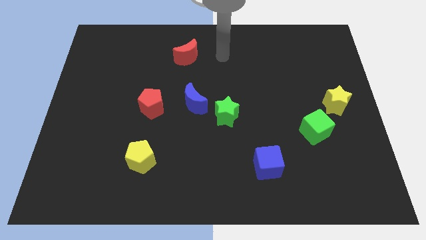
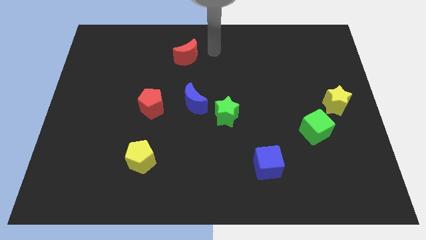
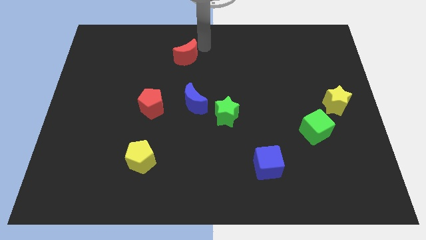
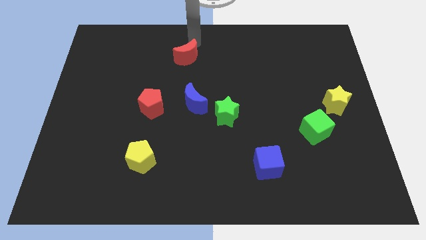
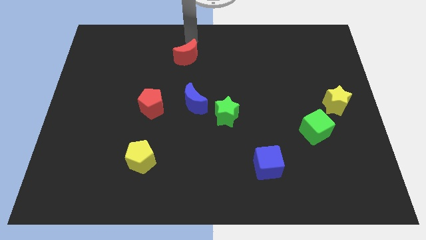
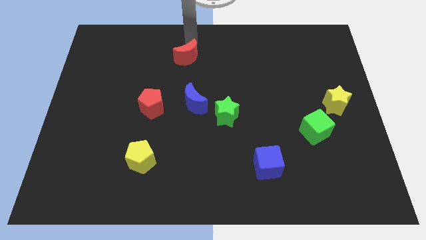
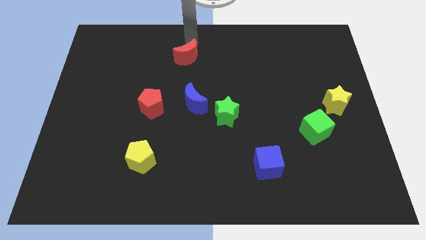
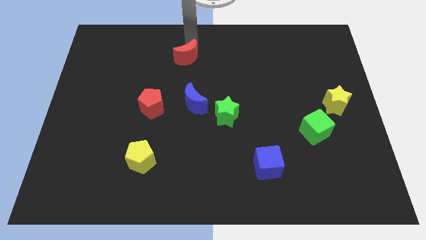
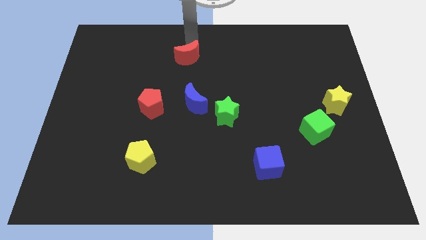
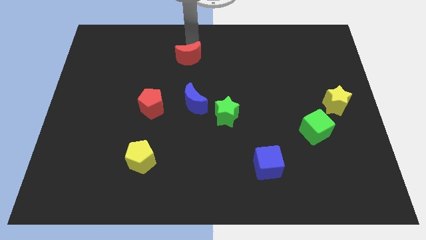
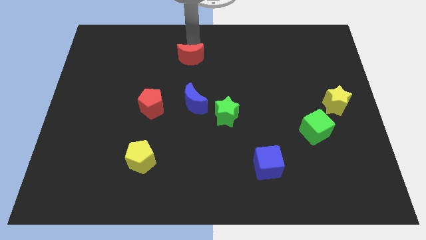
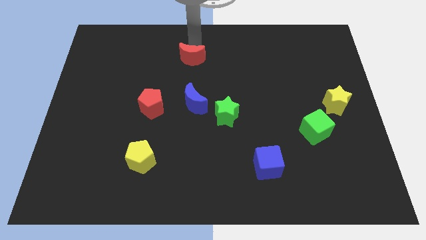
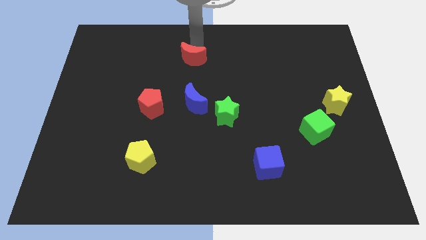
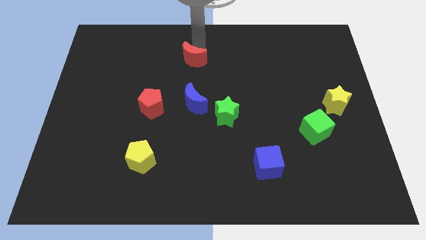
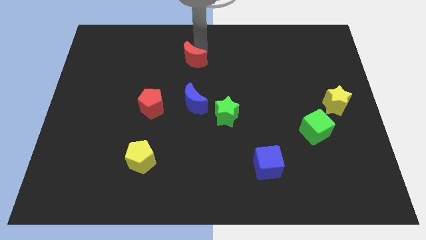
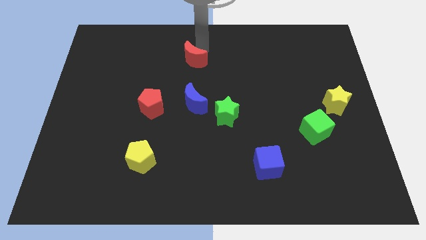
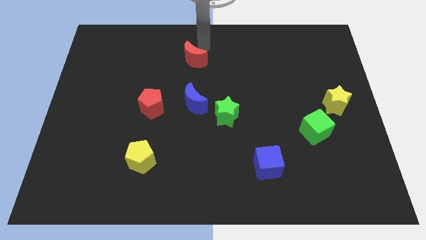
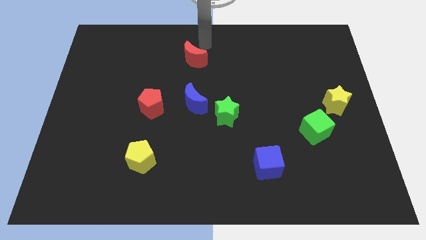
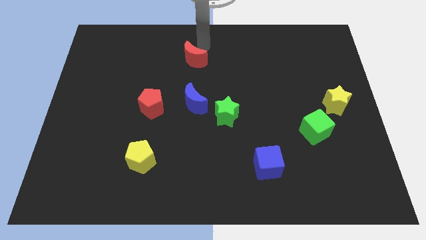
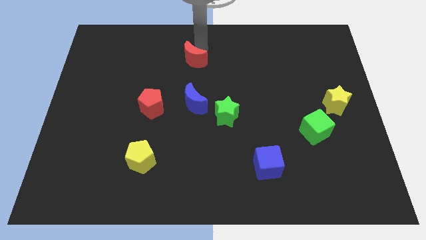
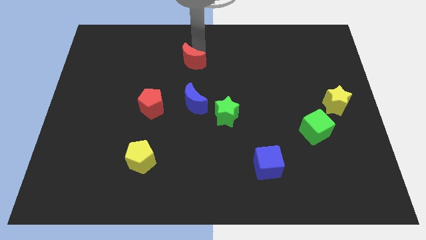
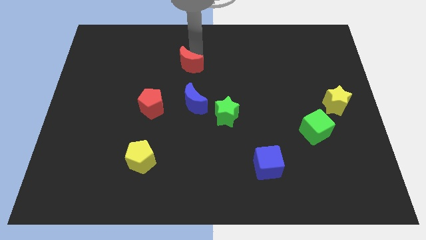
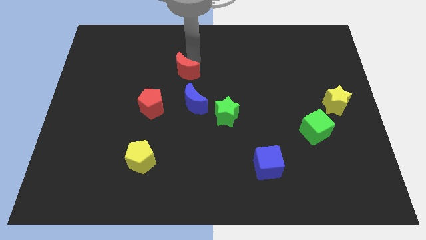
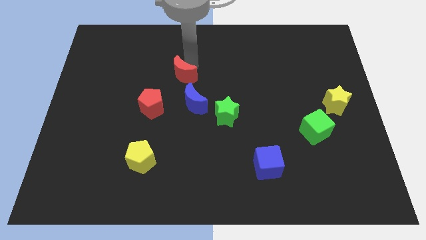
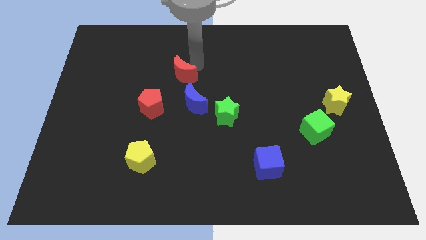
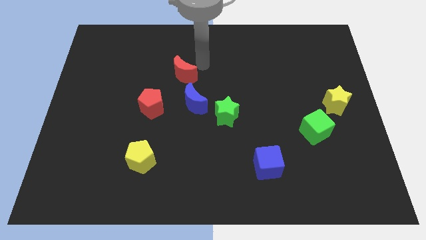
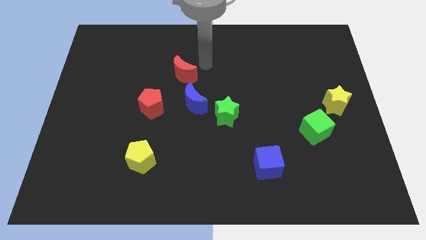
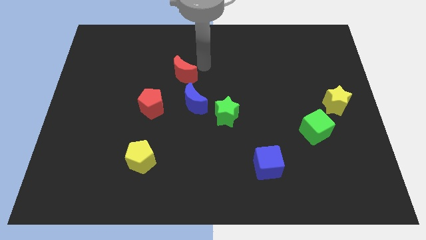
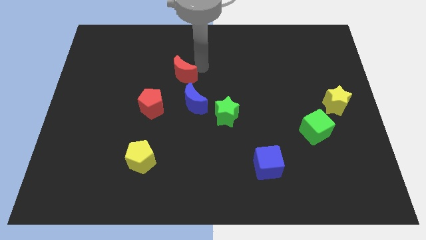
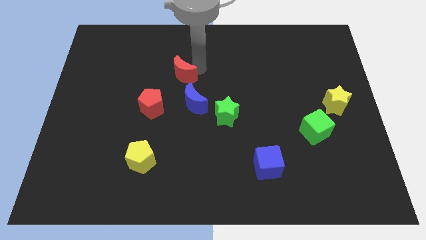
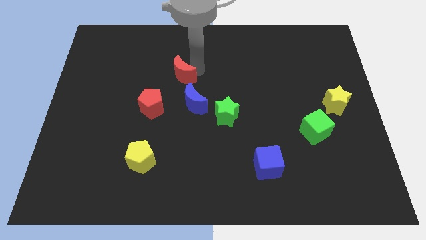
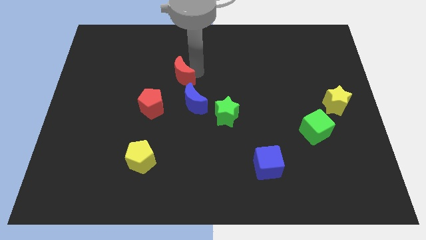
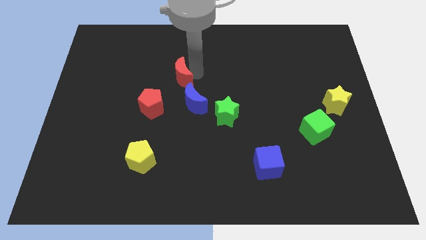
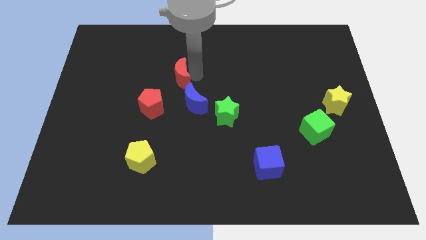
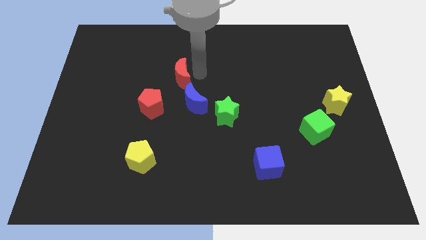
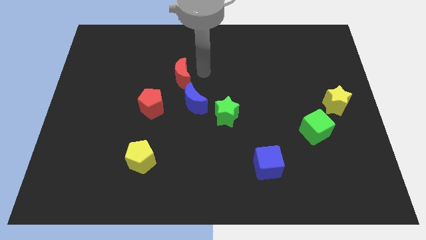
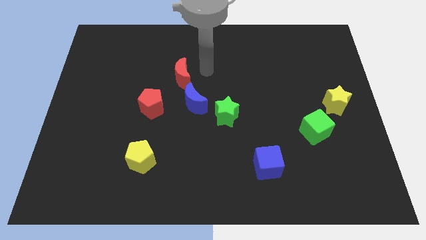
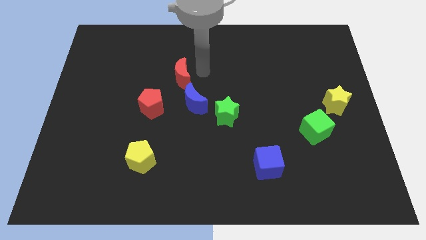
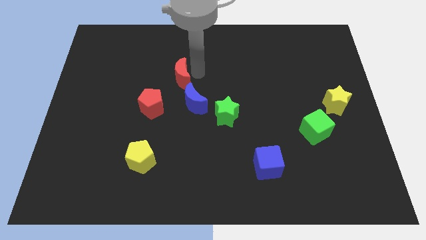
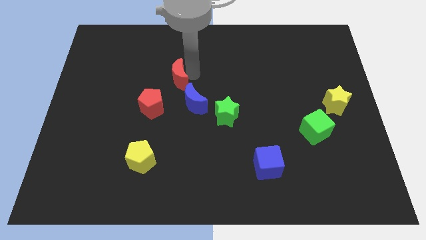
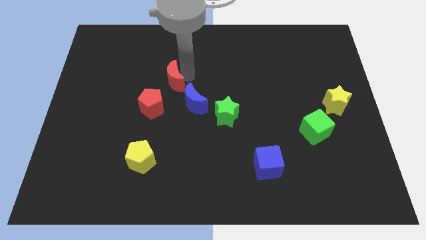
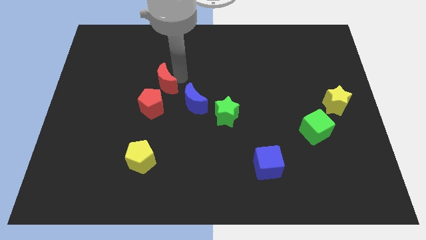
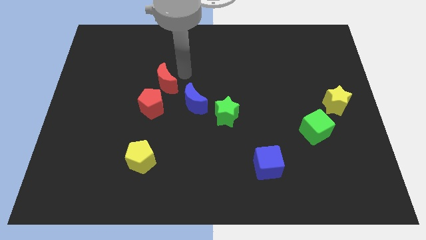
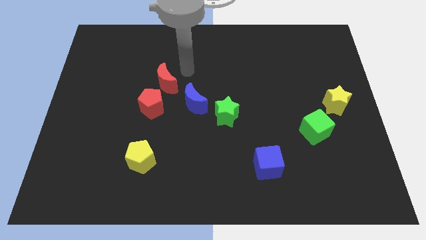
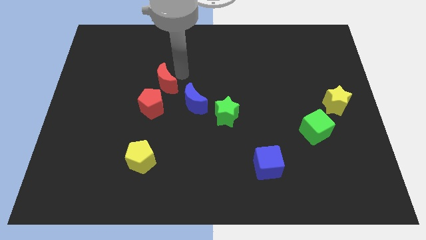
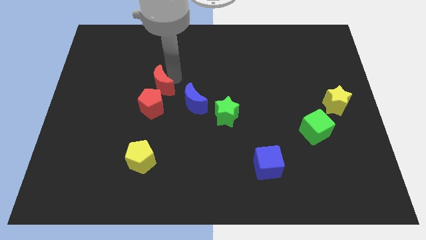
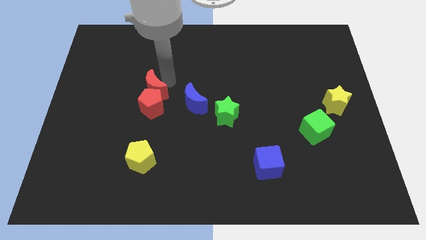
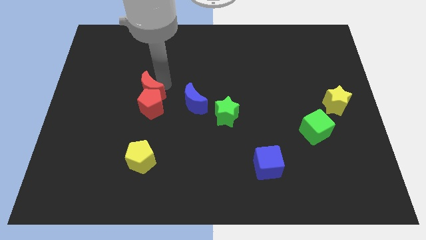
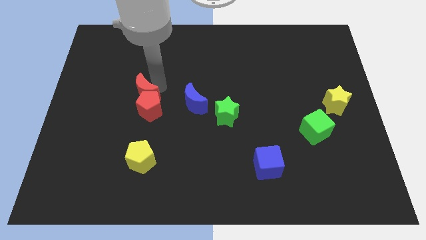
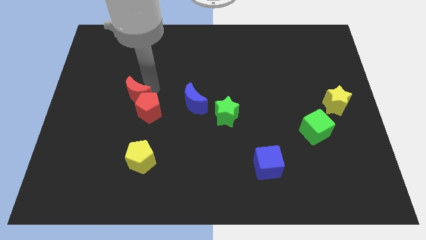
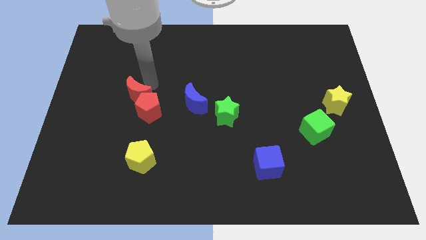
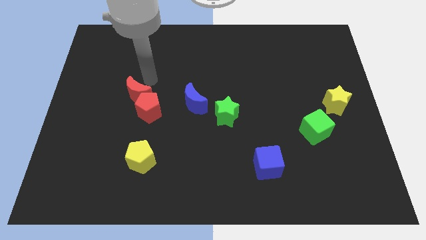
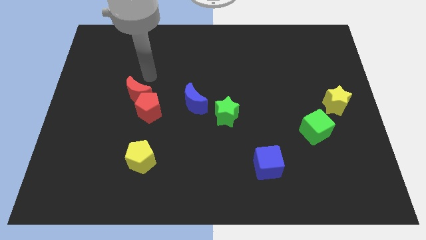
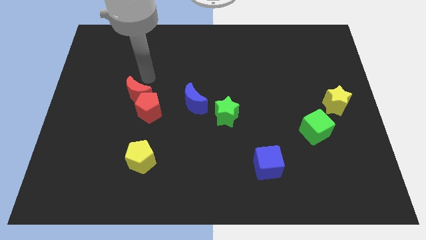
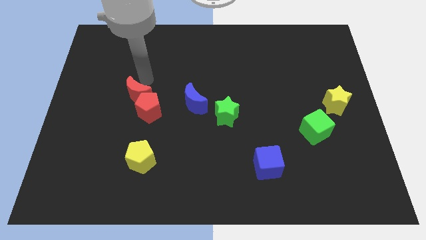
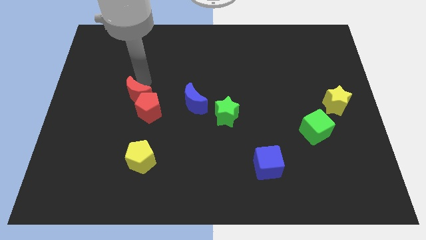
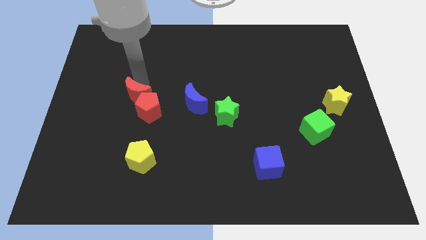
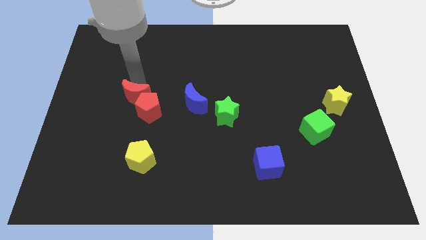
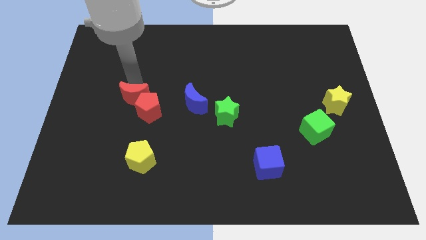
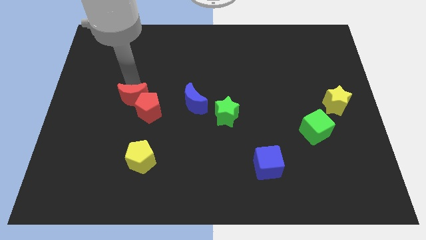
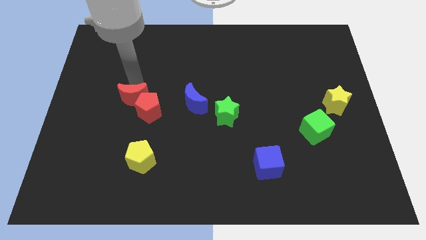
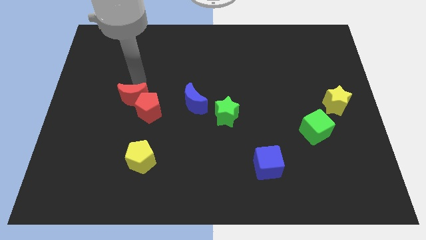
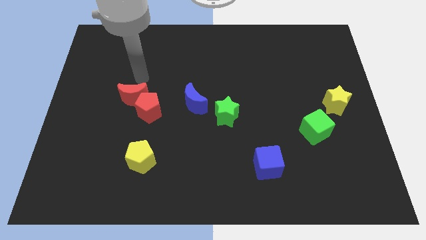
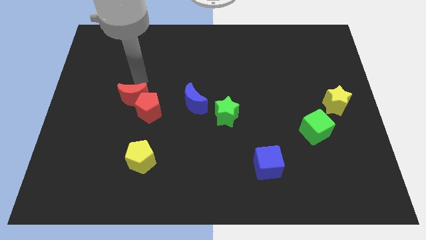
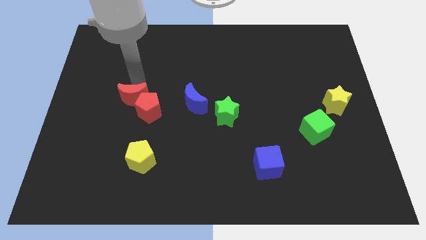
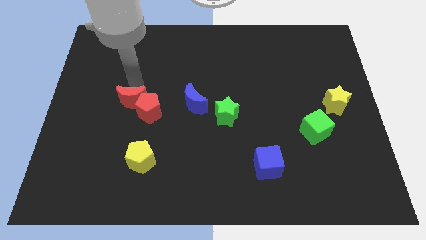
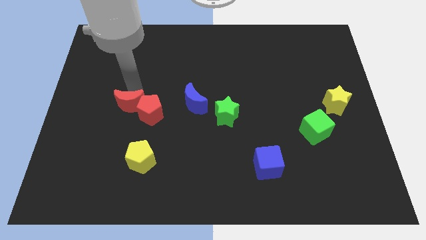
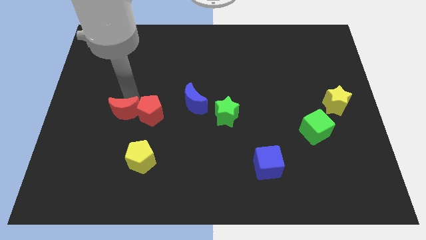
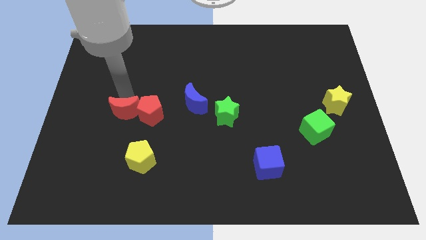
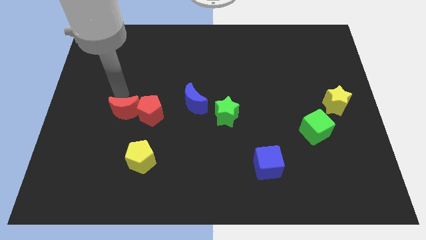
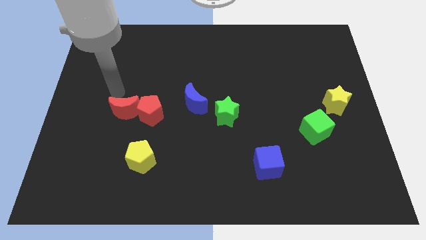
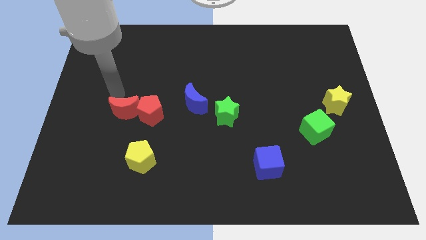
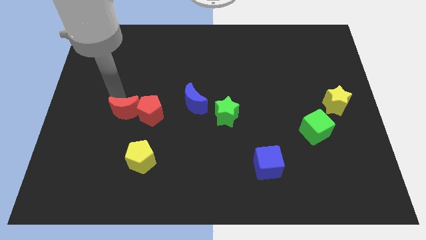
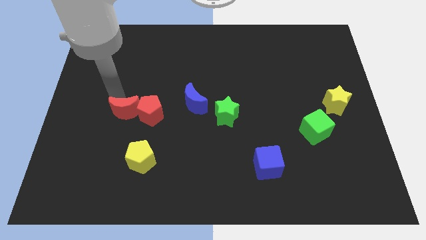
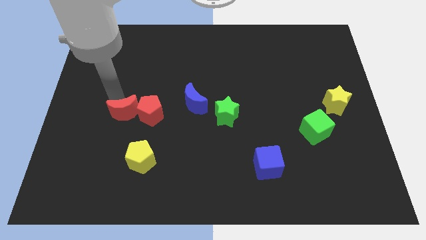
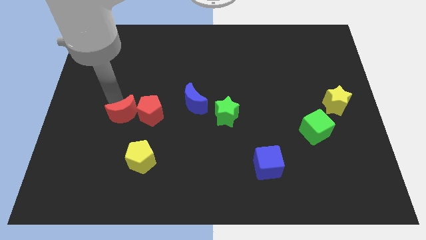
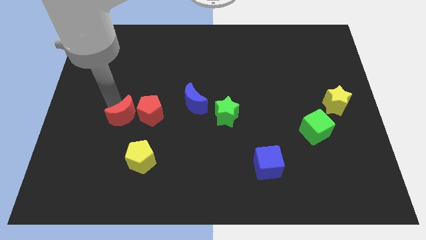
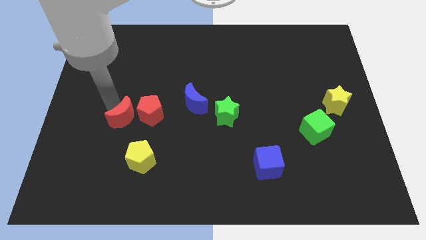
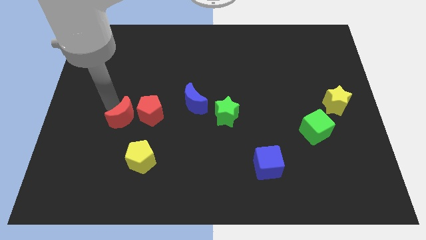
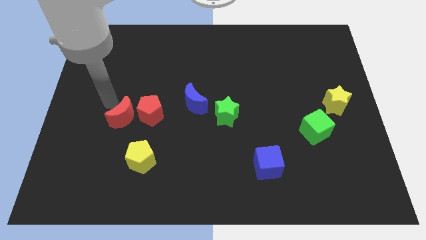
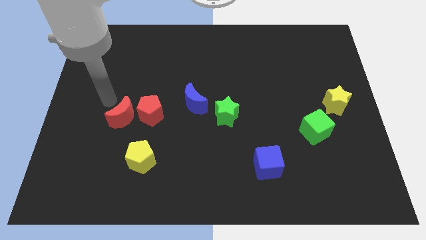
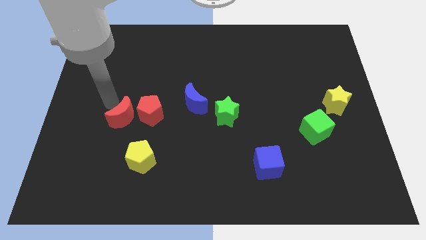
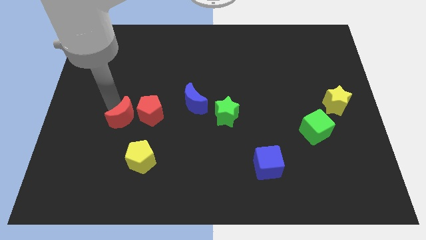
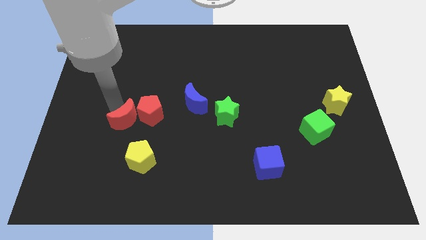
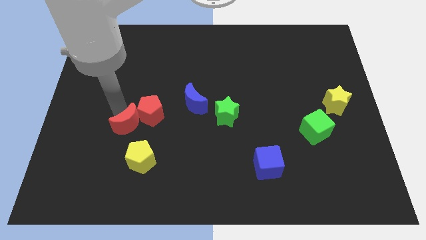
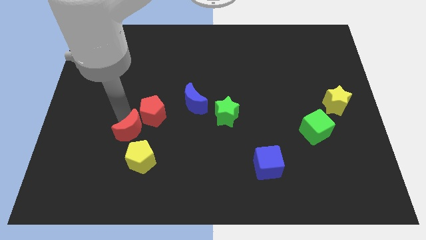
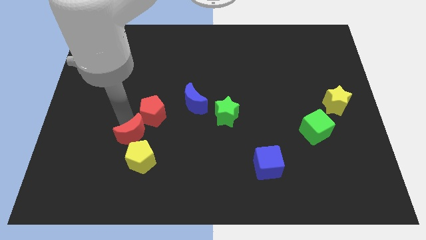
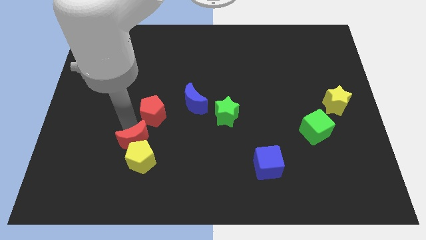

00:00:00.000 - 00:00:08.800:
put the red moon close to the yellow pentagon
